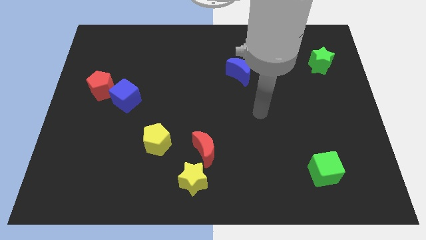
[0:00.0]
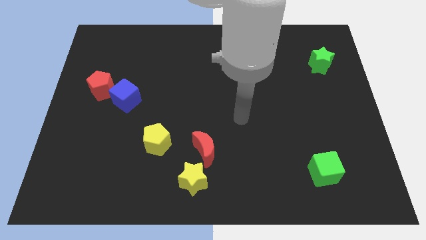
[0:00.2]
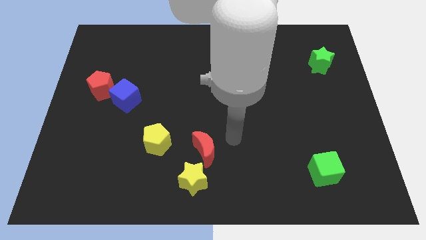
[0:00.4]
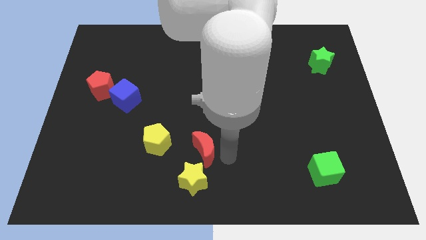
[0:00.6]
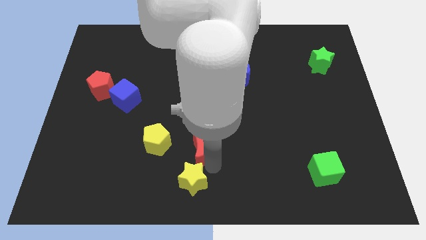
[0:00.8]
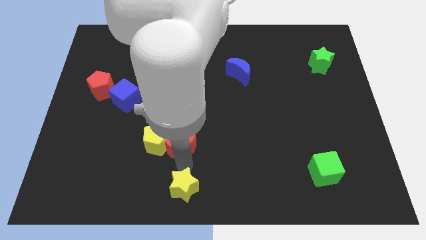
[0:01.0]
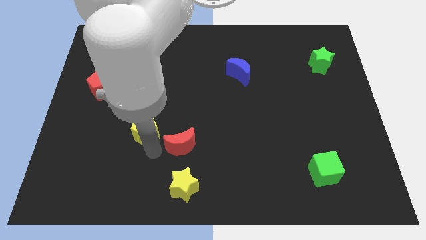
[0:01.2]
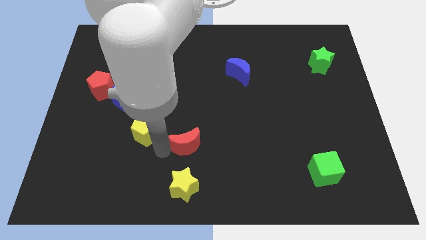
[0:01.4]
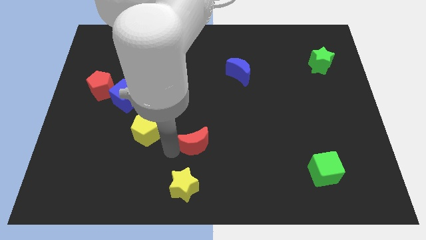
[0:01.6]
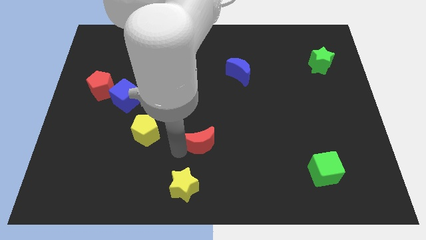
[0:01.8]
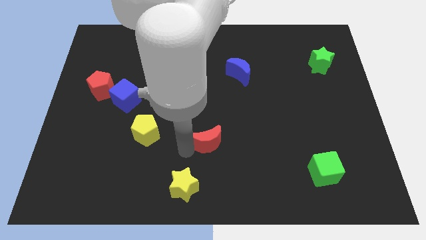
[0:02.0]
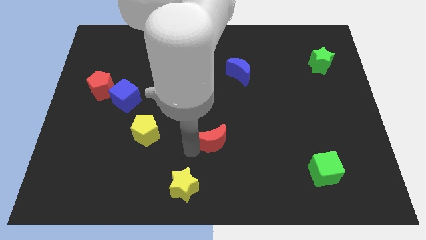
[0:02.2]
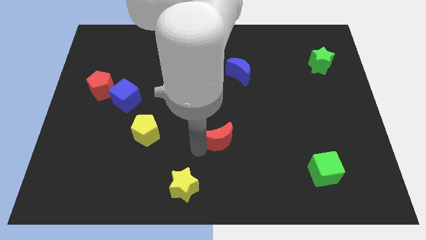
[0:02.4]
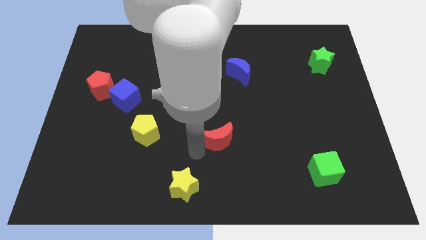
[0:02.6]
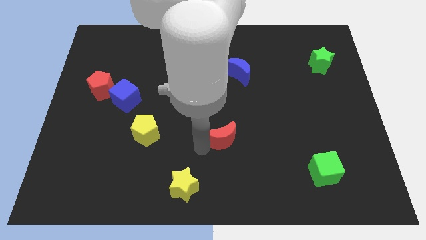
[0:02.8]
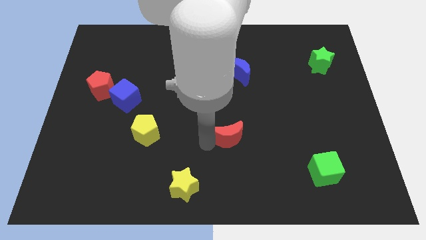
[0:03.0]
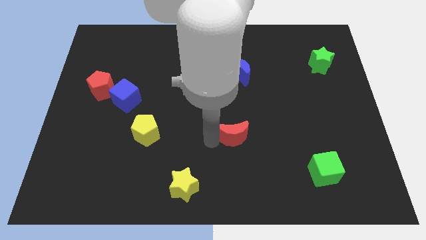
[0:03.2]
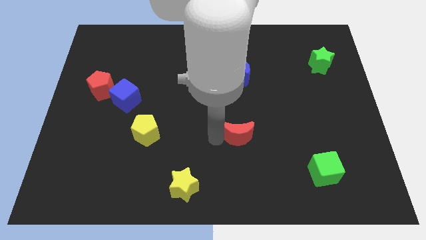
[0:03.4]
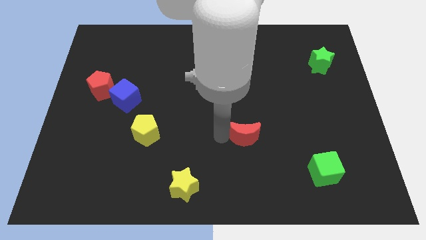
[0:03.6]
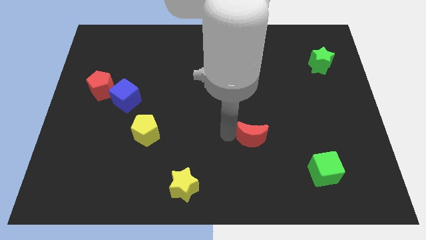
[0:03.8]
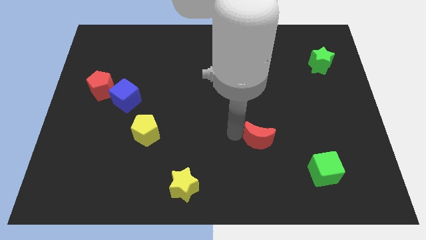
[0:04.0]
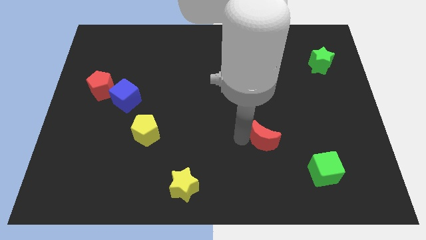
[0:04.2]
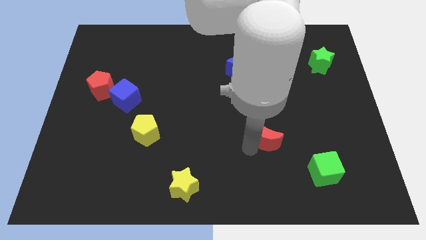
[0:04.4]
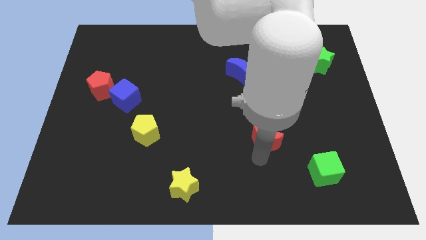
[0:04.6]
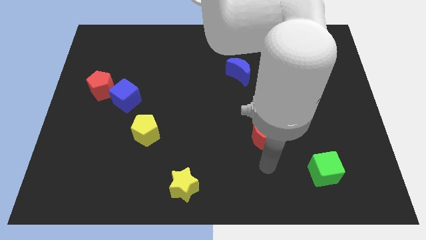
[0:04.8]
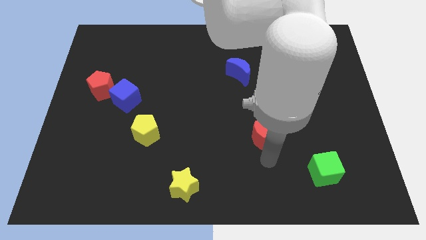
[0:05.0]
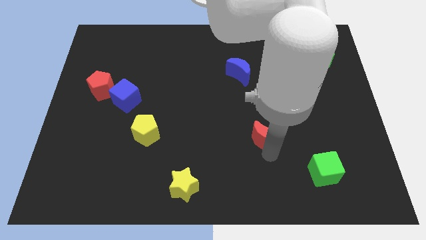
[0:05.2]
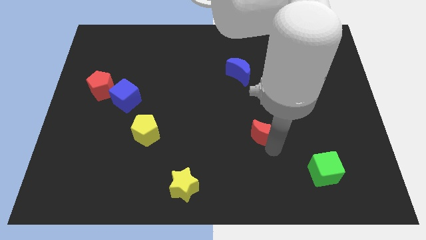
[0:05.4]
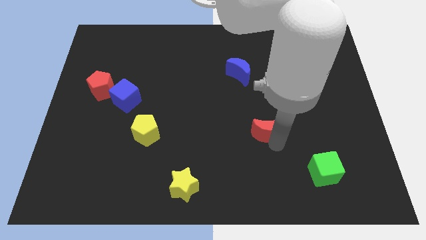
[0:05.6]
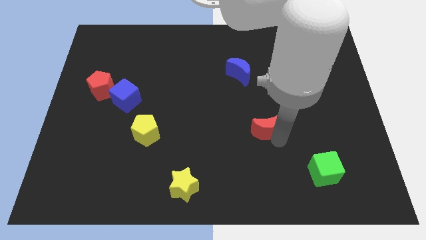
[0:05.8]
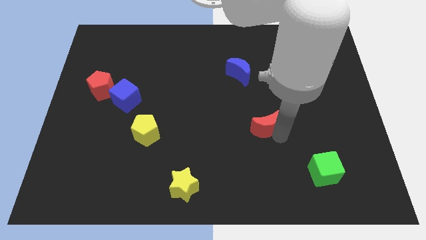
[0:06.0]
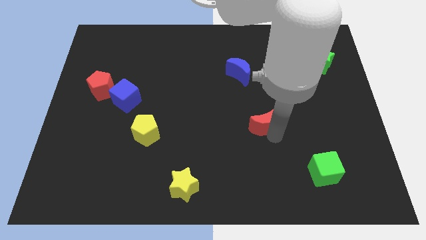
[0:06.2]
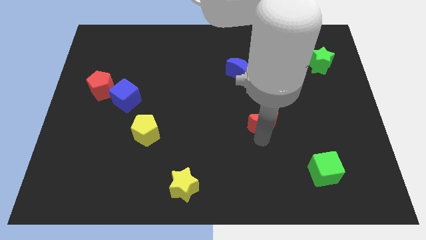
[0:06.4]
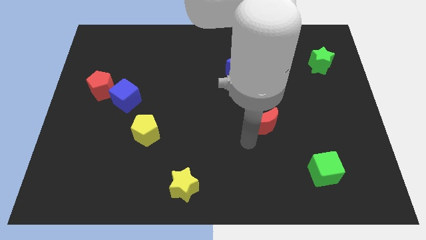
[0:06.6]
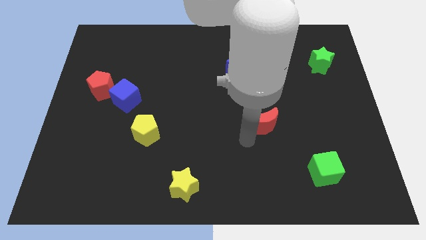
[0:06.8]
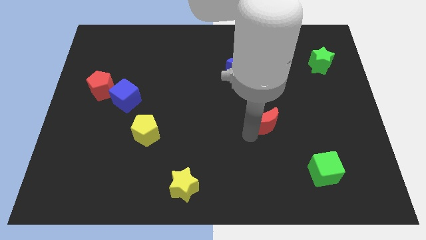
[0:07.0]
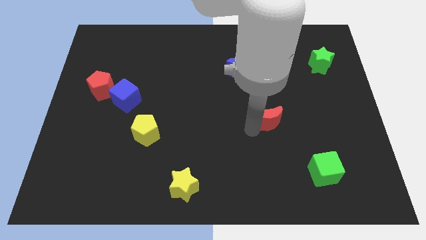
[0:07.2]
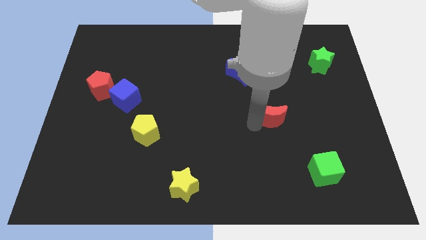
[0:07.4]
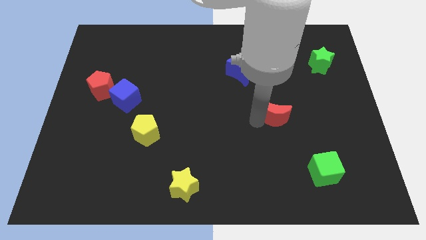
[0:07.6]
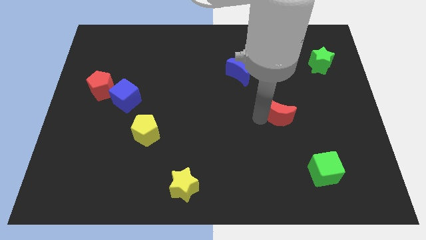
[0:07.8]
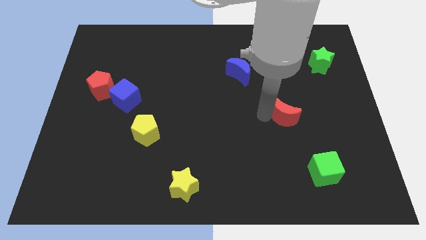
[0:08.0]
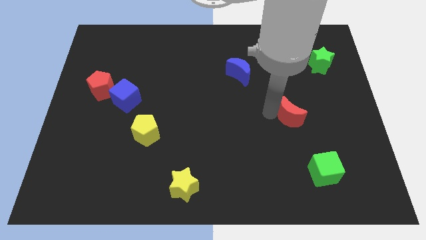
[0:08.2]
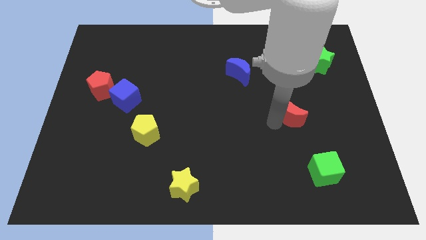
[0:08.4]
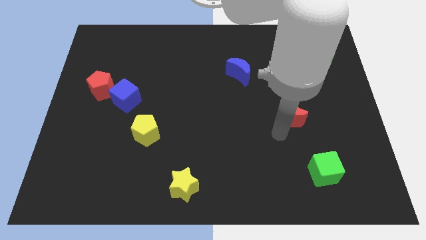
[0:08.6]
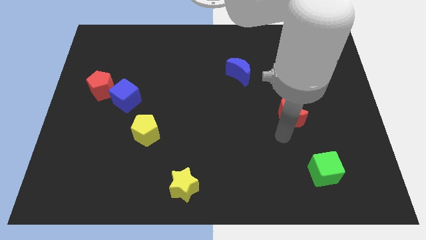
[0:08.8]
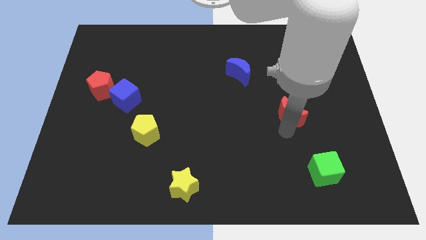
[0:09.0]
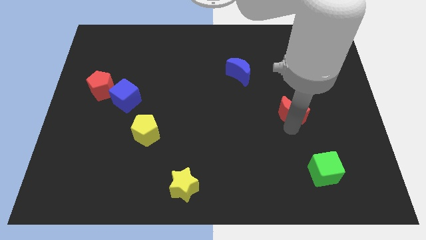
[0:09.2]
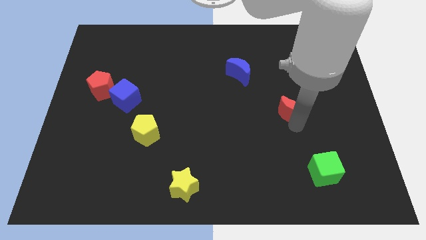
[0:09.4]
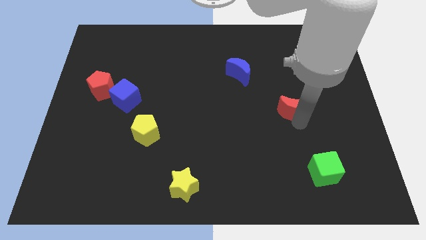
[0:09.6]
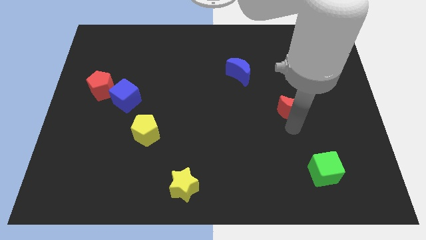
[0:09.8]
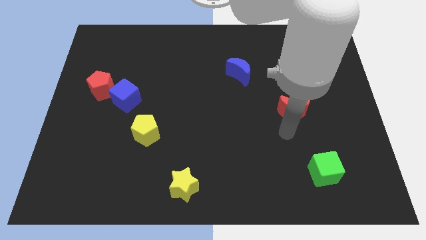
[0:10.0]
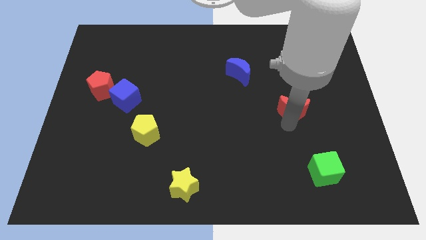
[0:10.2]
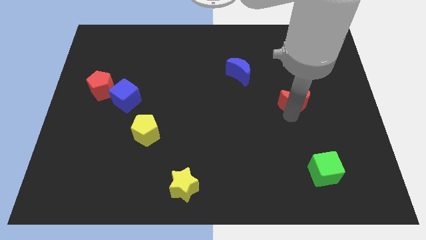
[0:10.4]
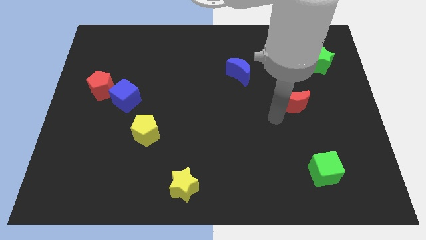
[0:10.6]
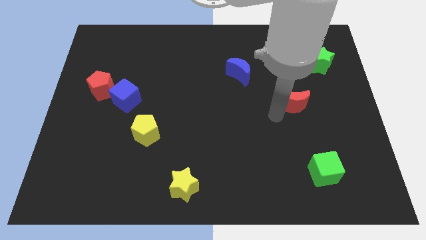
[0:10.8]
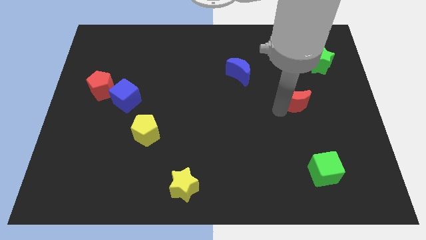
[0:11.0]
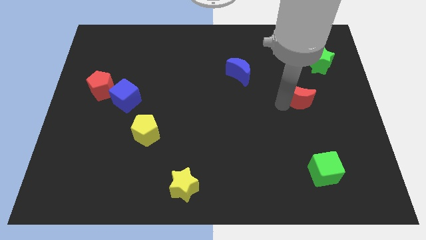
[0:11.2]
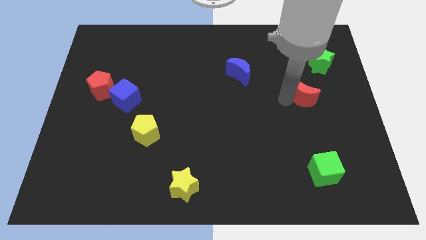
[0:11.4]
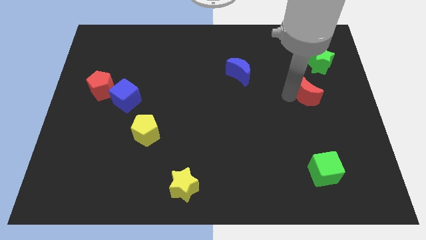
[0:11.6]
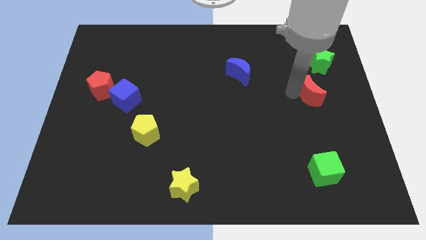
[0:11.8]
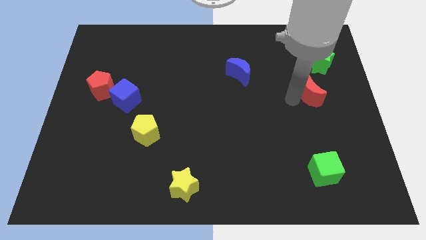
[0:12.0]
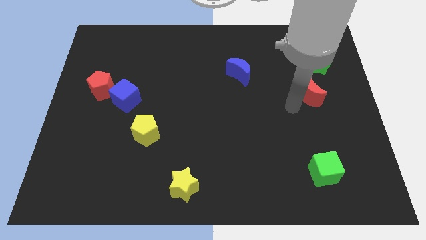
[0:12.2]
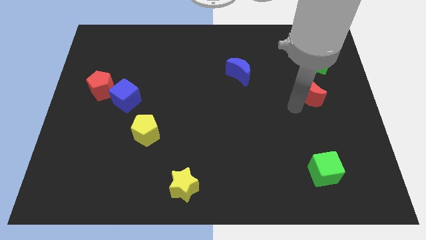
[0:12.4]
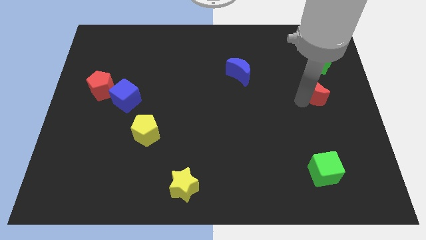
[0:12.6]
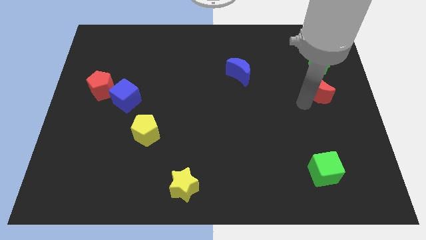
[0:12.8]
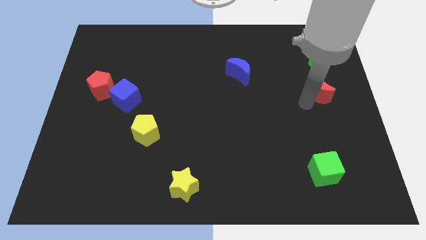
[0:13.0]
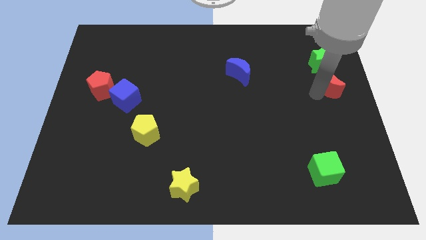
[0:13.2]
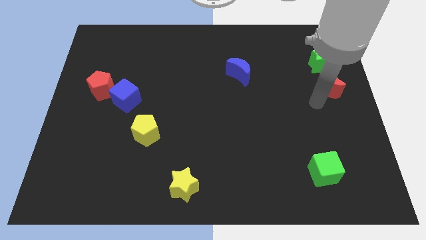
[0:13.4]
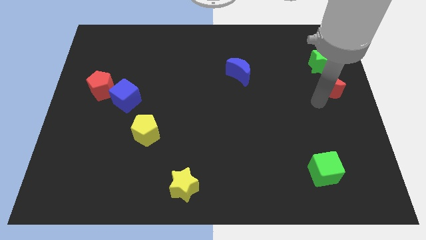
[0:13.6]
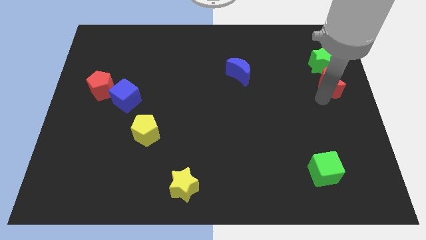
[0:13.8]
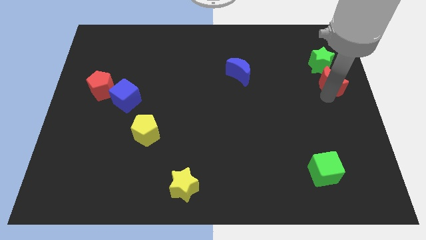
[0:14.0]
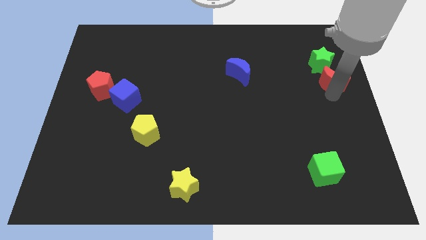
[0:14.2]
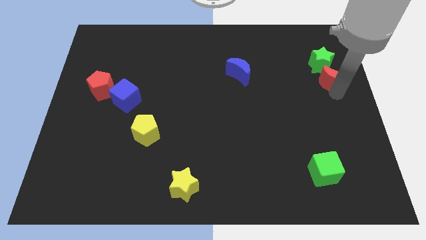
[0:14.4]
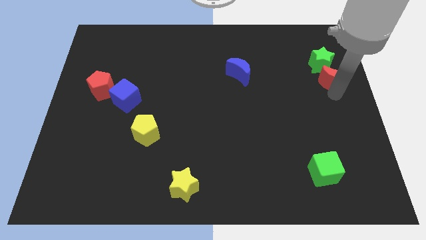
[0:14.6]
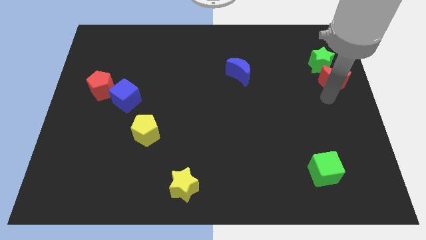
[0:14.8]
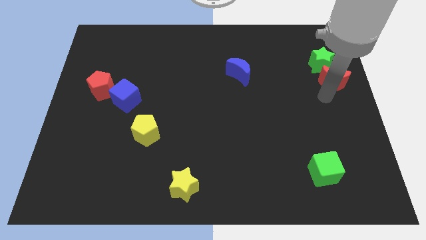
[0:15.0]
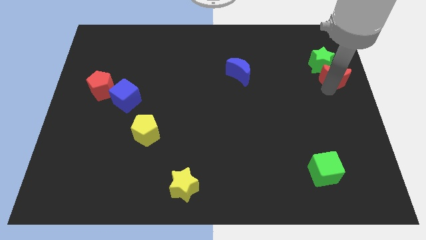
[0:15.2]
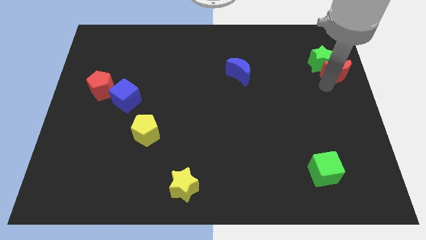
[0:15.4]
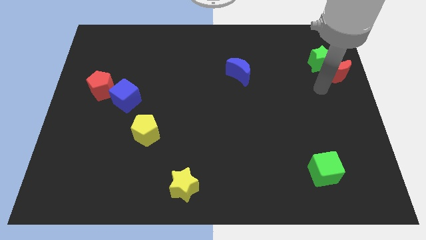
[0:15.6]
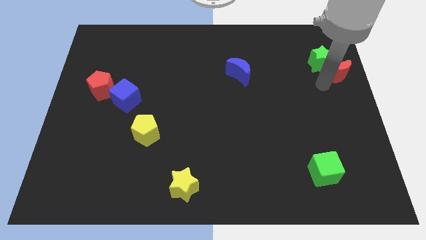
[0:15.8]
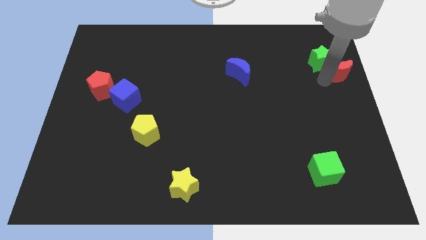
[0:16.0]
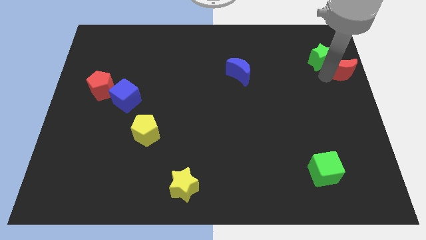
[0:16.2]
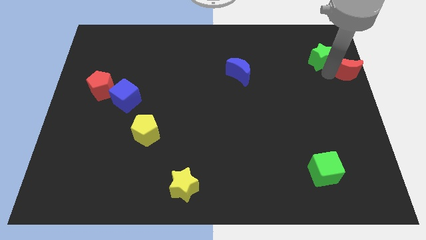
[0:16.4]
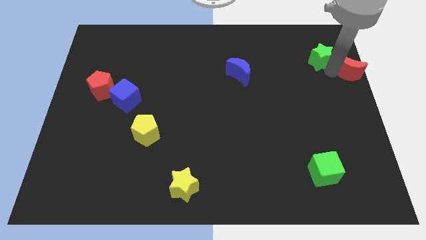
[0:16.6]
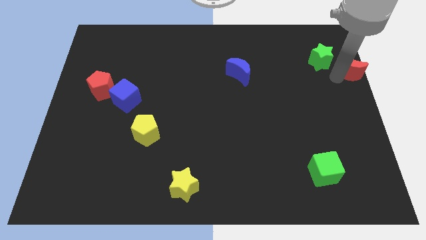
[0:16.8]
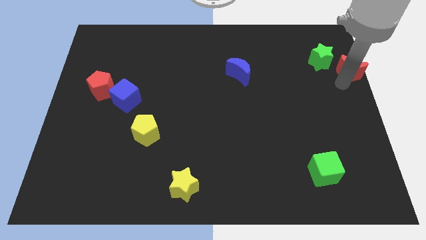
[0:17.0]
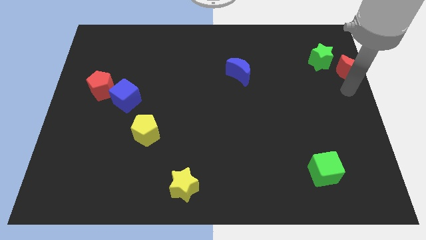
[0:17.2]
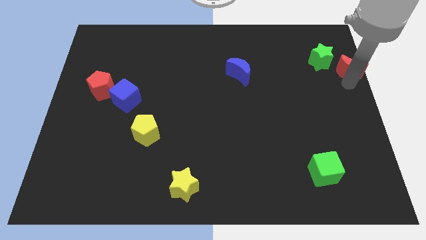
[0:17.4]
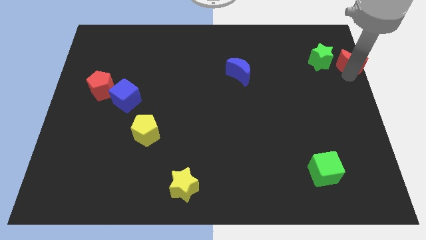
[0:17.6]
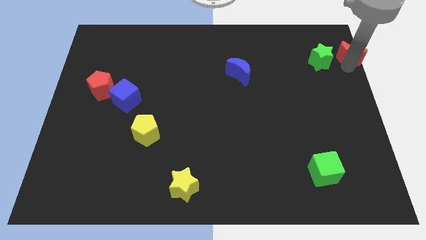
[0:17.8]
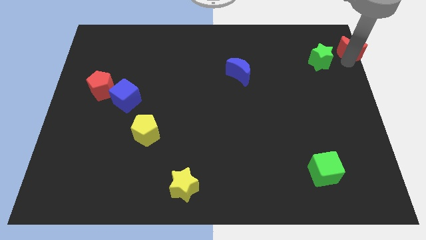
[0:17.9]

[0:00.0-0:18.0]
move the red moon to the top right corner
